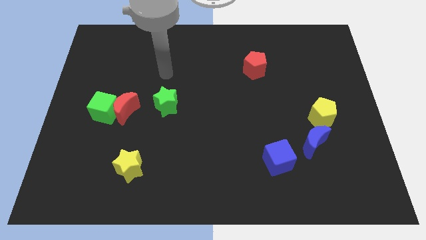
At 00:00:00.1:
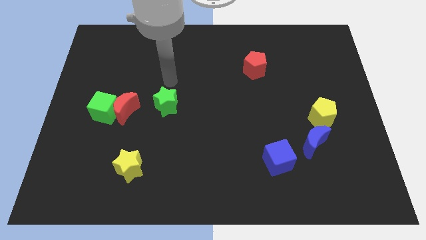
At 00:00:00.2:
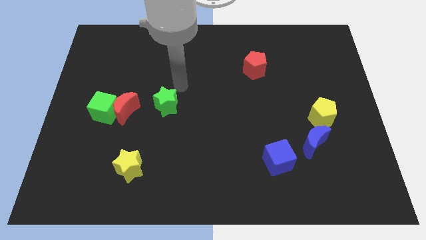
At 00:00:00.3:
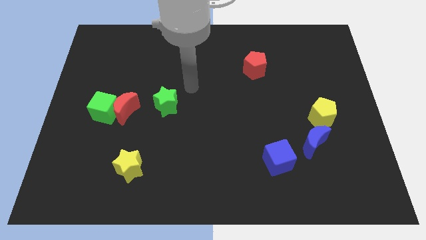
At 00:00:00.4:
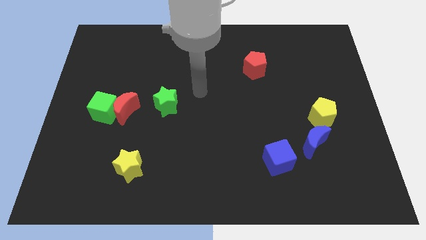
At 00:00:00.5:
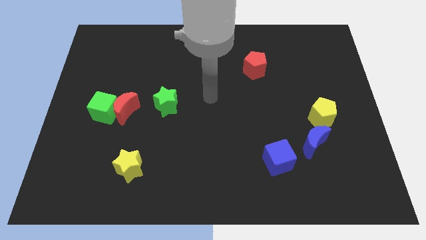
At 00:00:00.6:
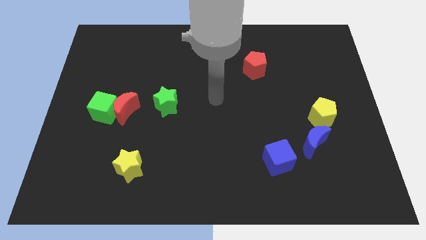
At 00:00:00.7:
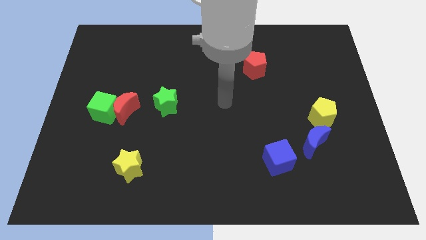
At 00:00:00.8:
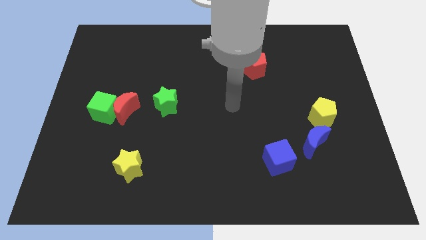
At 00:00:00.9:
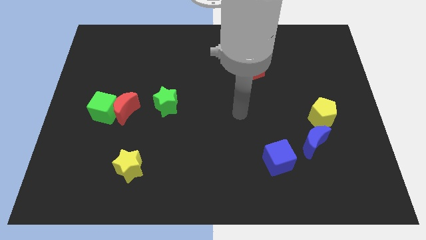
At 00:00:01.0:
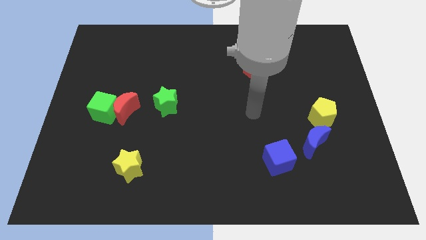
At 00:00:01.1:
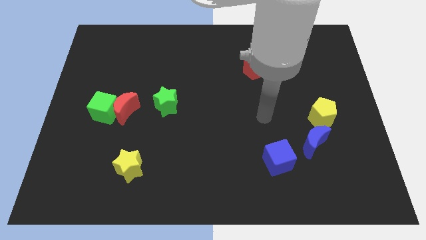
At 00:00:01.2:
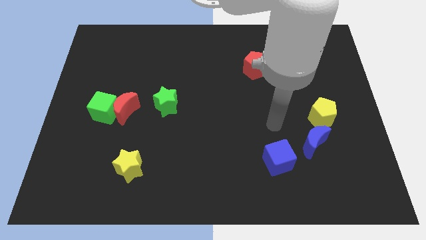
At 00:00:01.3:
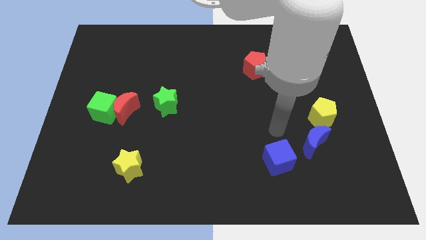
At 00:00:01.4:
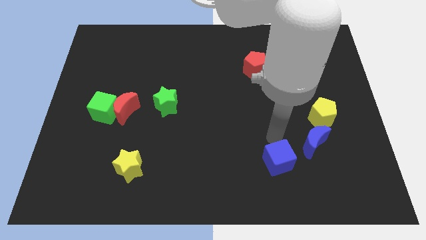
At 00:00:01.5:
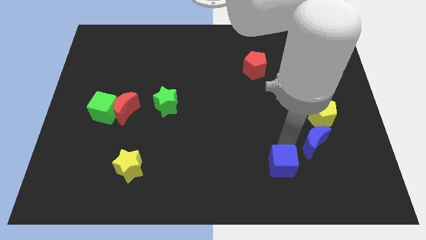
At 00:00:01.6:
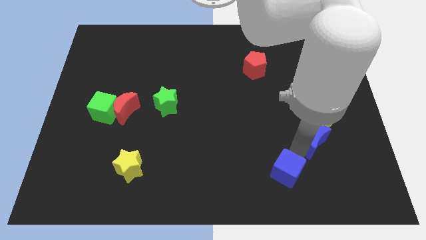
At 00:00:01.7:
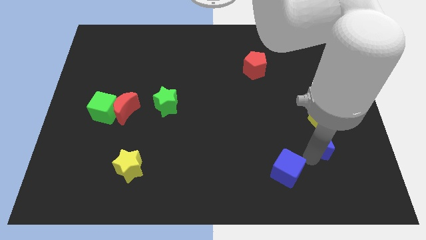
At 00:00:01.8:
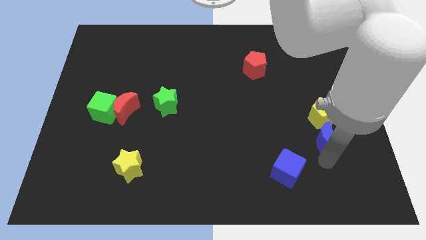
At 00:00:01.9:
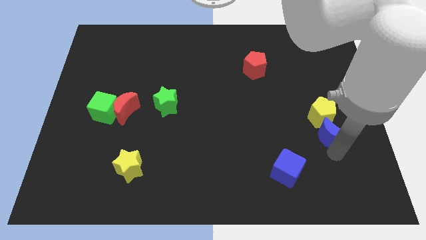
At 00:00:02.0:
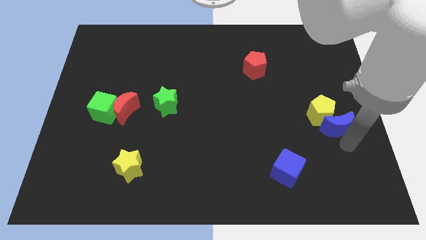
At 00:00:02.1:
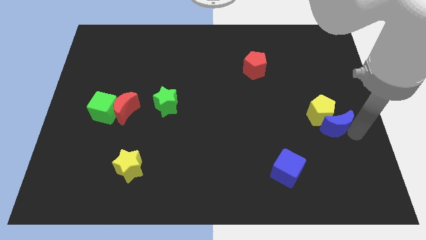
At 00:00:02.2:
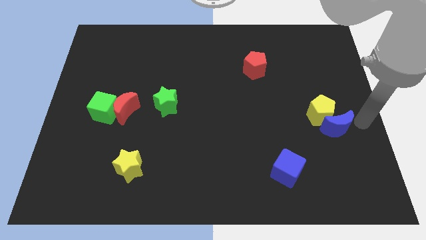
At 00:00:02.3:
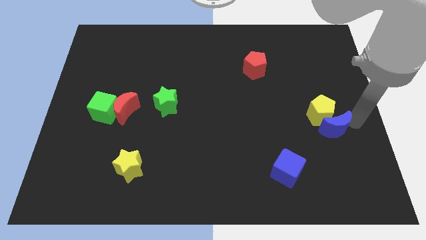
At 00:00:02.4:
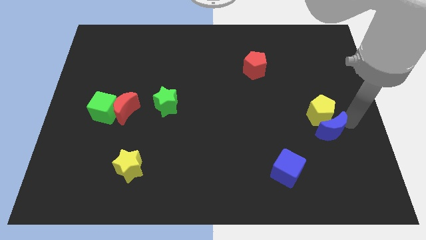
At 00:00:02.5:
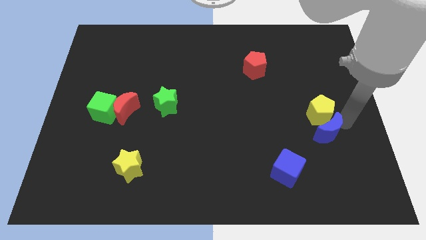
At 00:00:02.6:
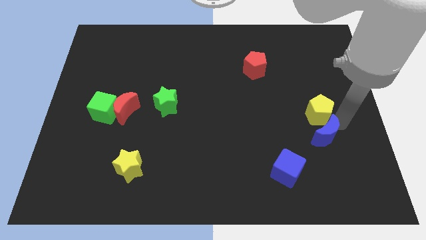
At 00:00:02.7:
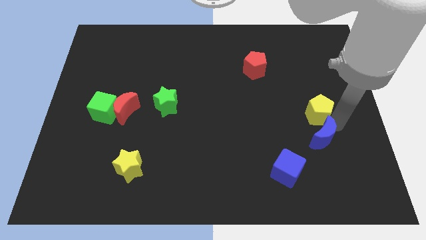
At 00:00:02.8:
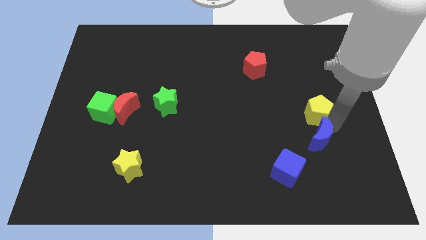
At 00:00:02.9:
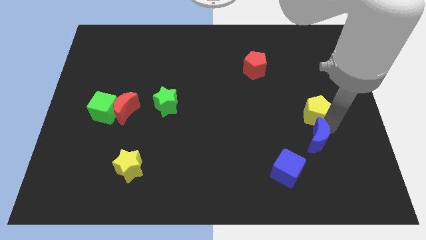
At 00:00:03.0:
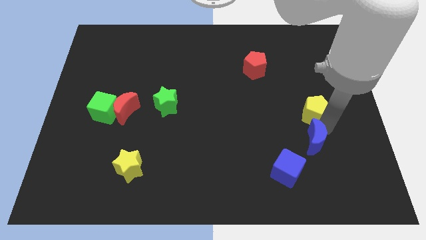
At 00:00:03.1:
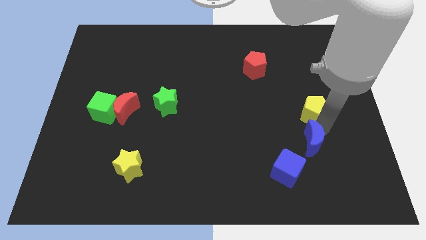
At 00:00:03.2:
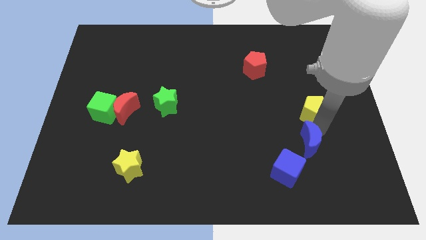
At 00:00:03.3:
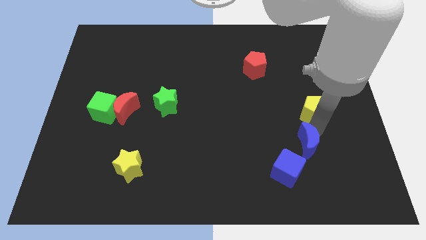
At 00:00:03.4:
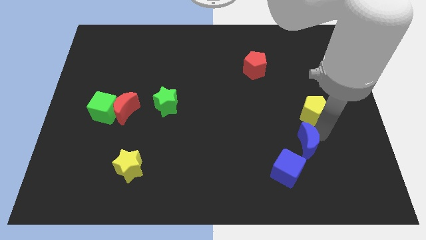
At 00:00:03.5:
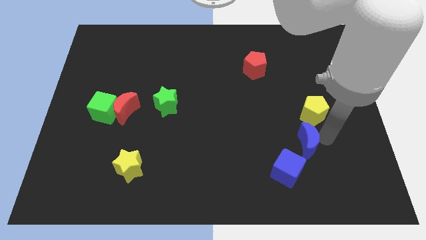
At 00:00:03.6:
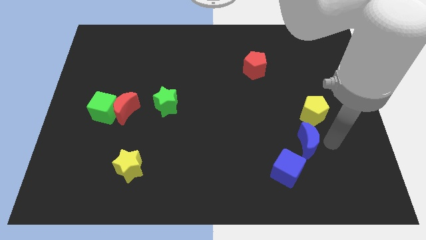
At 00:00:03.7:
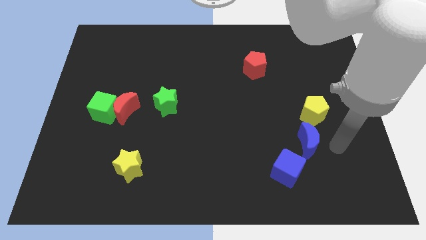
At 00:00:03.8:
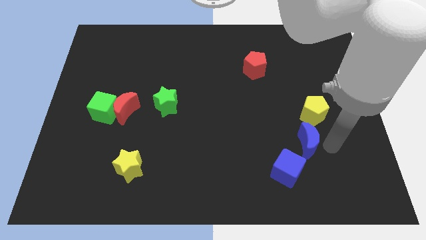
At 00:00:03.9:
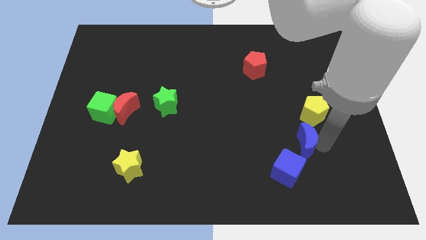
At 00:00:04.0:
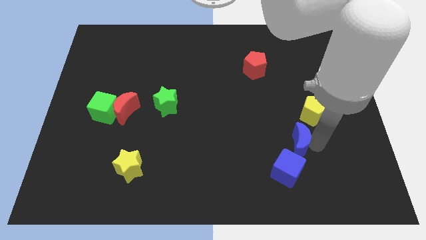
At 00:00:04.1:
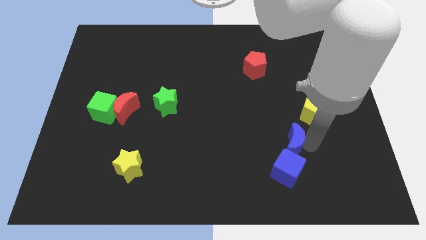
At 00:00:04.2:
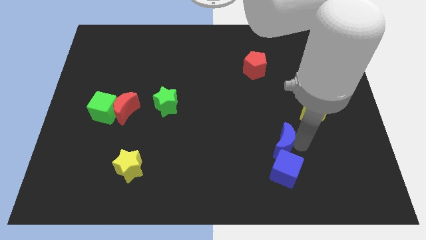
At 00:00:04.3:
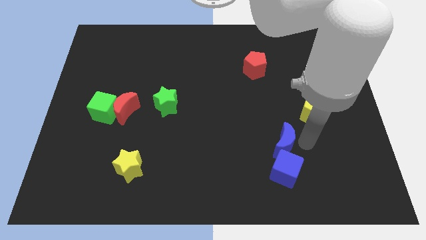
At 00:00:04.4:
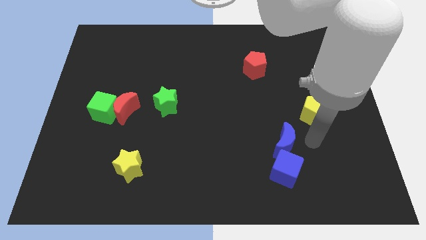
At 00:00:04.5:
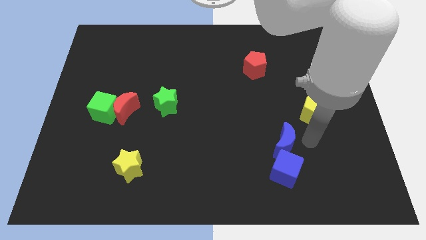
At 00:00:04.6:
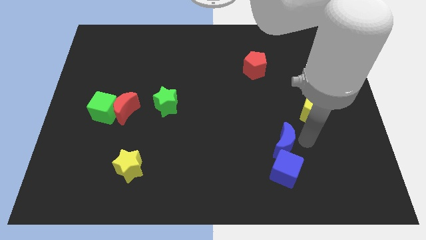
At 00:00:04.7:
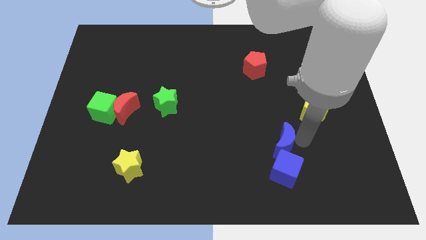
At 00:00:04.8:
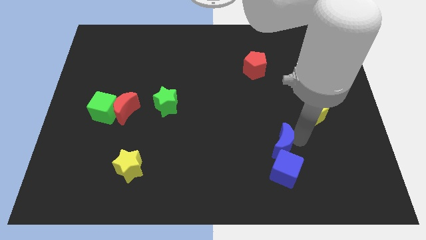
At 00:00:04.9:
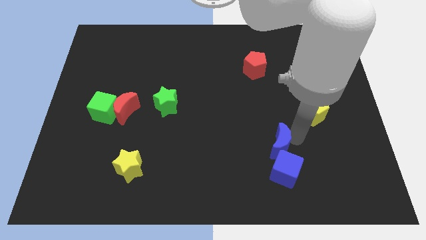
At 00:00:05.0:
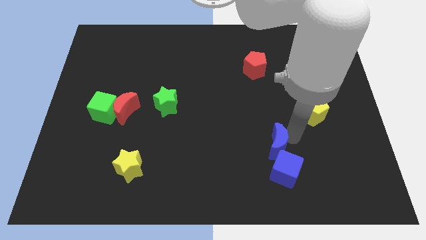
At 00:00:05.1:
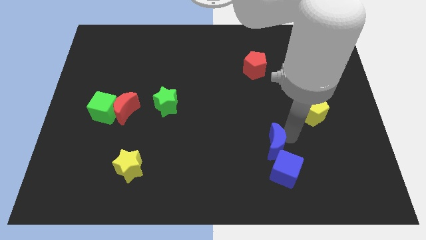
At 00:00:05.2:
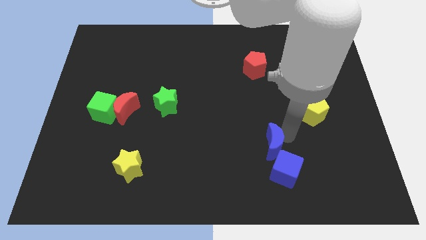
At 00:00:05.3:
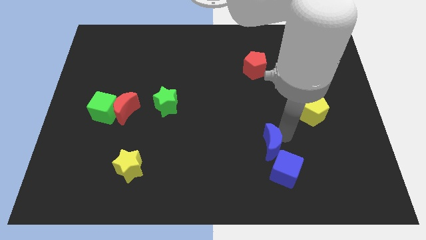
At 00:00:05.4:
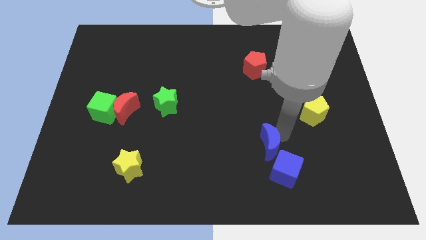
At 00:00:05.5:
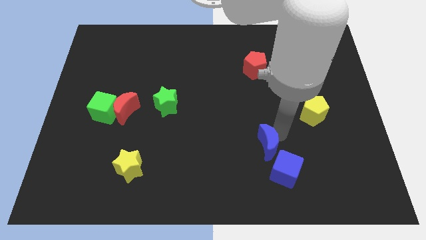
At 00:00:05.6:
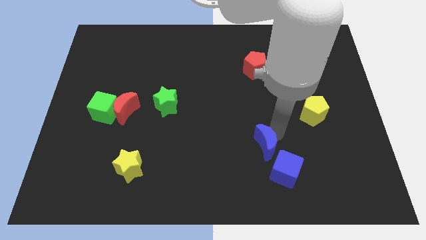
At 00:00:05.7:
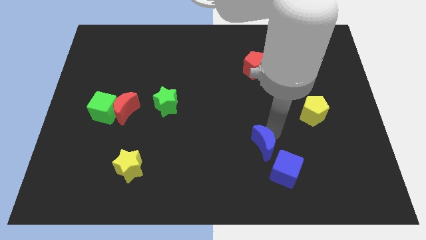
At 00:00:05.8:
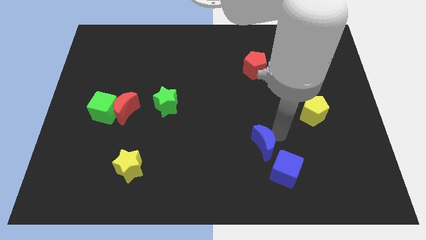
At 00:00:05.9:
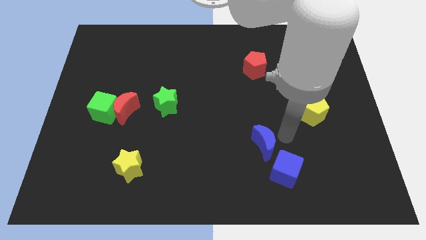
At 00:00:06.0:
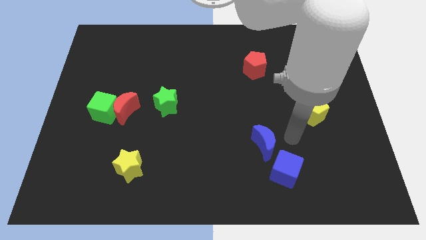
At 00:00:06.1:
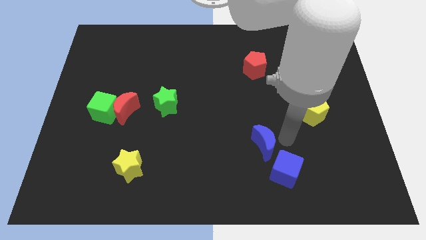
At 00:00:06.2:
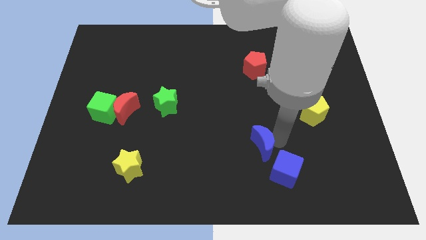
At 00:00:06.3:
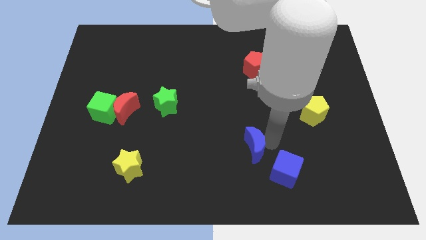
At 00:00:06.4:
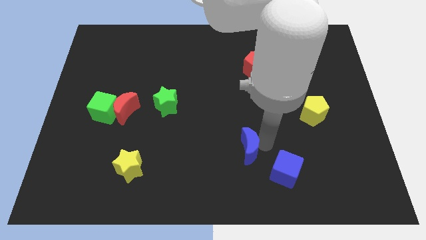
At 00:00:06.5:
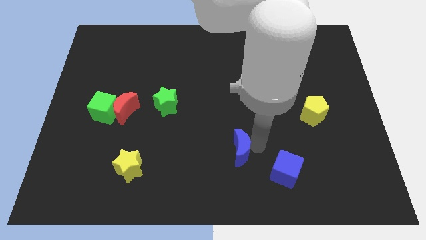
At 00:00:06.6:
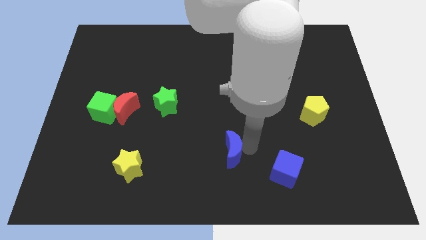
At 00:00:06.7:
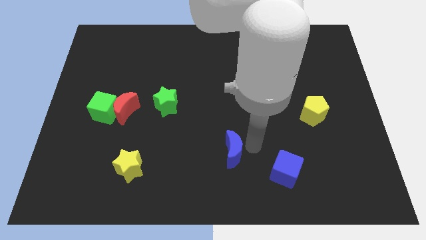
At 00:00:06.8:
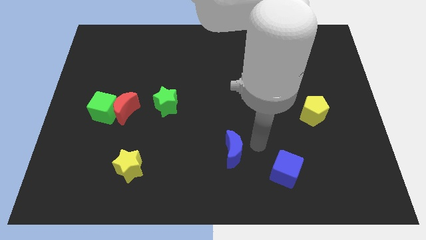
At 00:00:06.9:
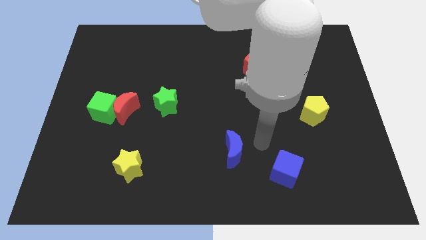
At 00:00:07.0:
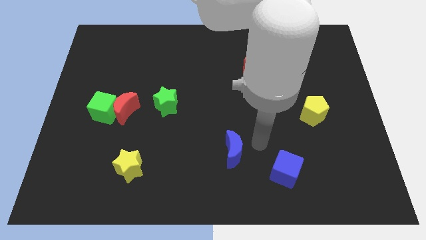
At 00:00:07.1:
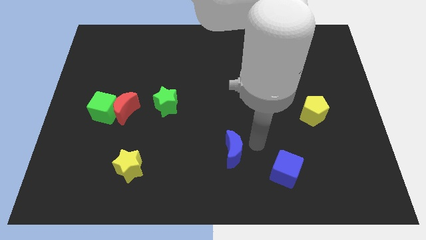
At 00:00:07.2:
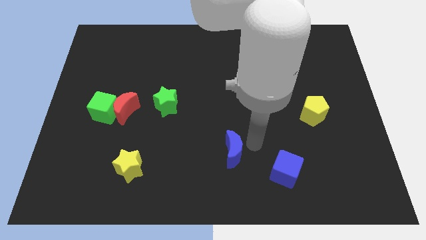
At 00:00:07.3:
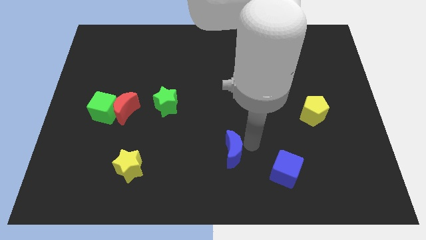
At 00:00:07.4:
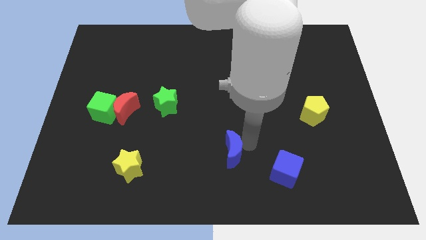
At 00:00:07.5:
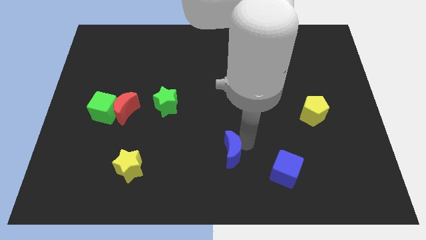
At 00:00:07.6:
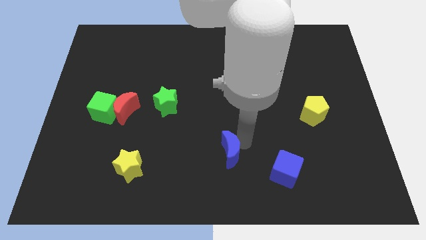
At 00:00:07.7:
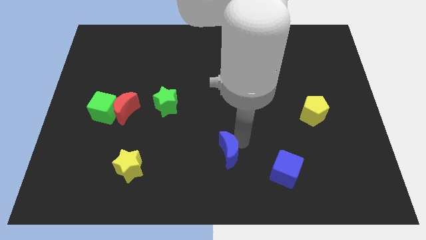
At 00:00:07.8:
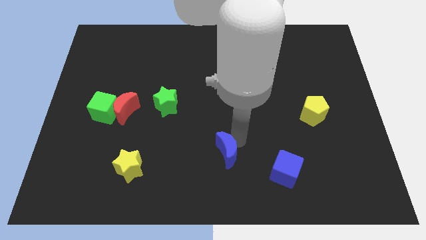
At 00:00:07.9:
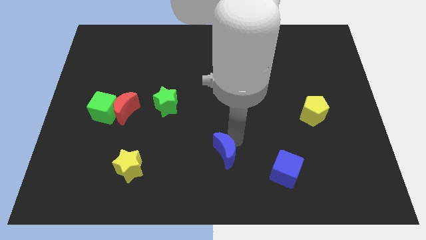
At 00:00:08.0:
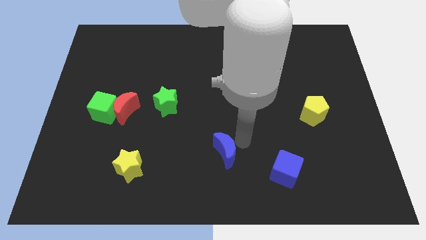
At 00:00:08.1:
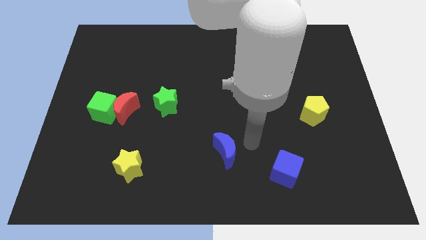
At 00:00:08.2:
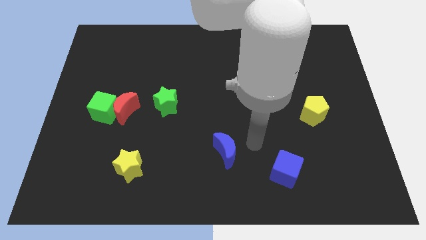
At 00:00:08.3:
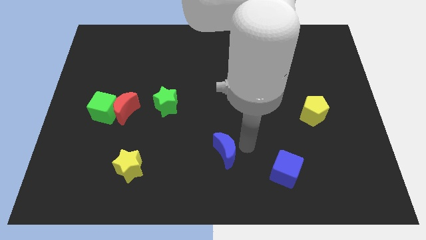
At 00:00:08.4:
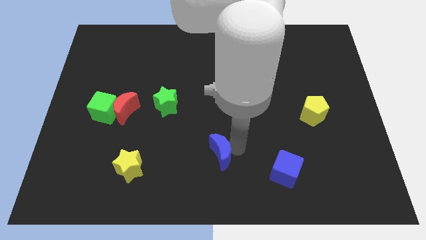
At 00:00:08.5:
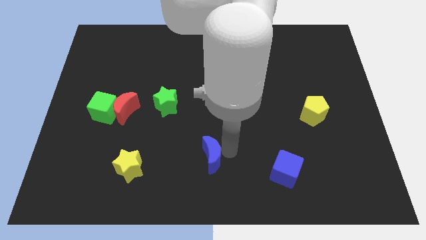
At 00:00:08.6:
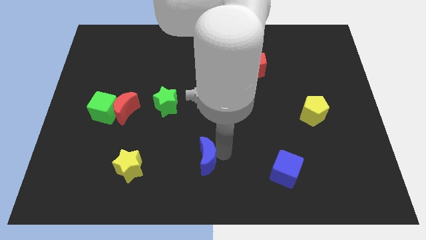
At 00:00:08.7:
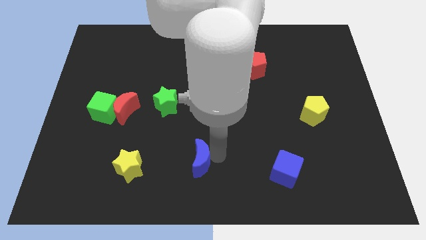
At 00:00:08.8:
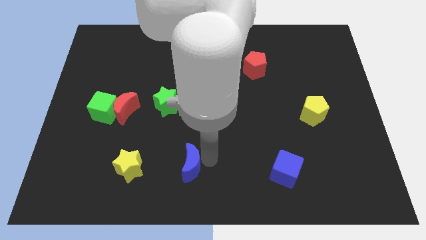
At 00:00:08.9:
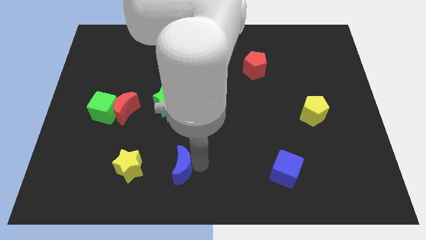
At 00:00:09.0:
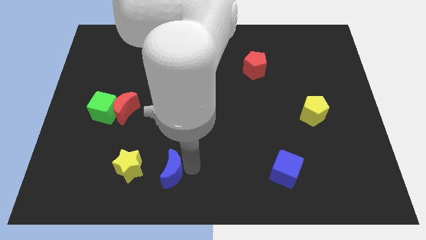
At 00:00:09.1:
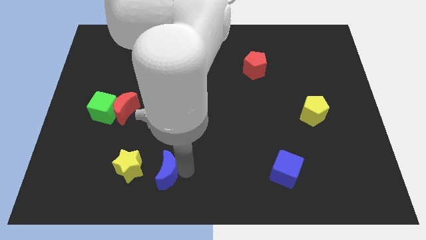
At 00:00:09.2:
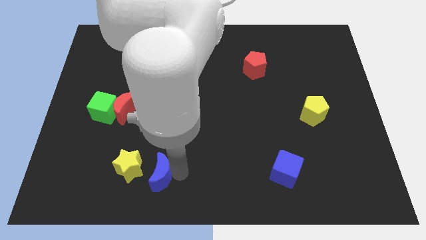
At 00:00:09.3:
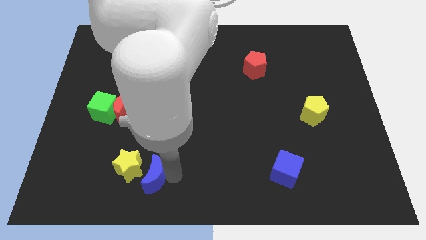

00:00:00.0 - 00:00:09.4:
push the blue moon towards the yellow star
